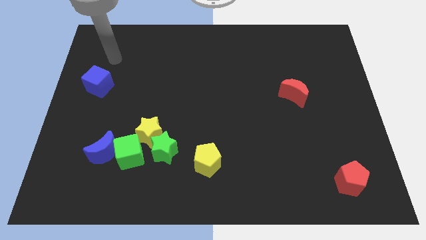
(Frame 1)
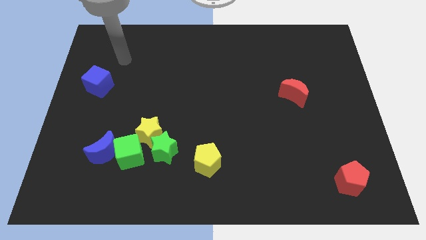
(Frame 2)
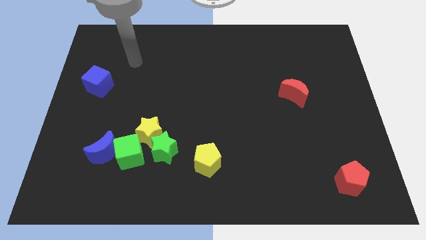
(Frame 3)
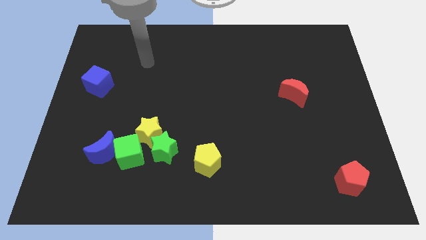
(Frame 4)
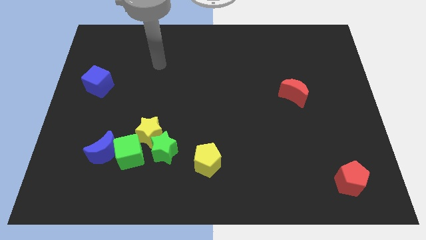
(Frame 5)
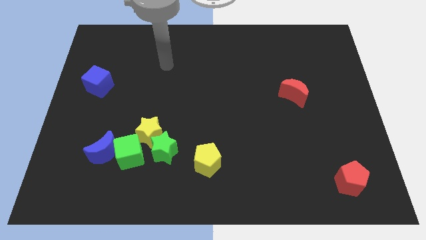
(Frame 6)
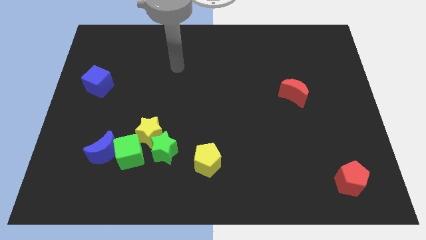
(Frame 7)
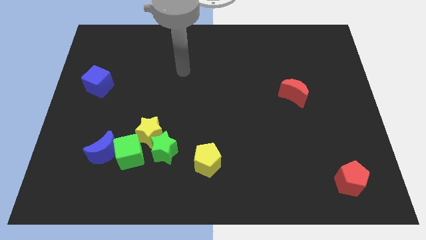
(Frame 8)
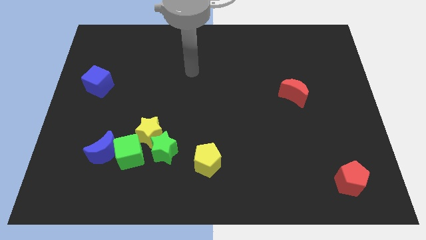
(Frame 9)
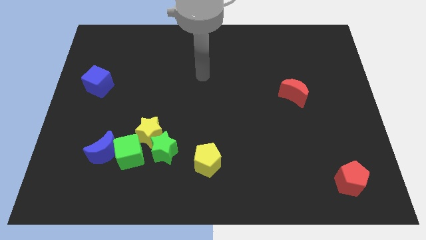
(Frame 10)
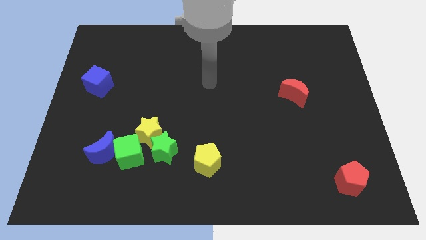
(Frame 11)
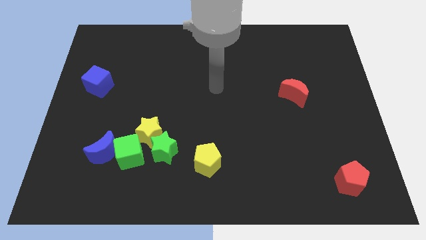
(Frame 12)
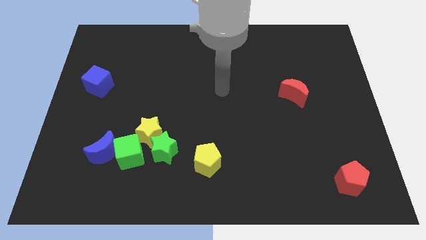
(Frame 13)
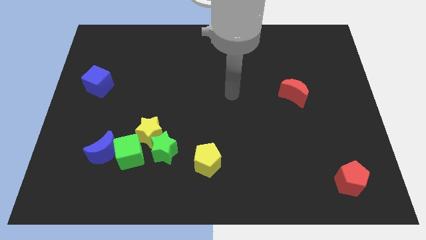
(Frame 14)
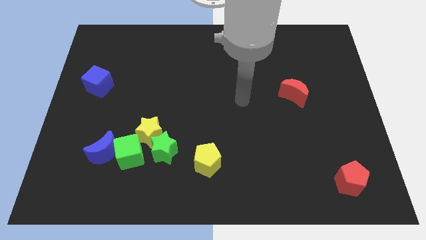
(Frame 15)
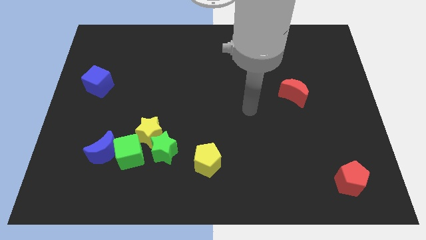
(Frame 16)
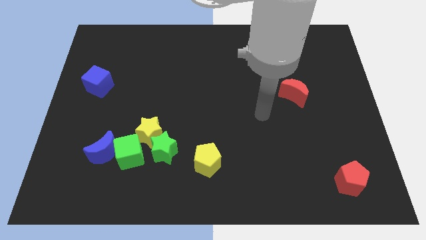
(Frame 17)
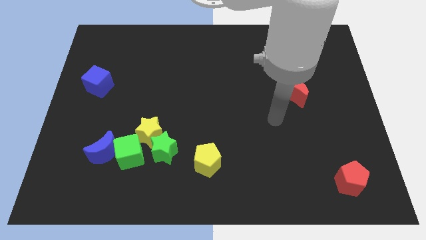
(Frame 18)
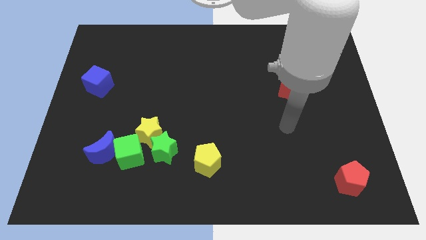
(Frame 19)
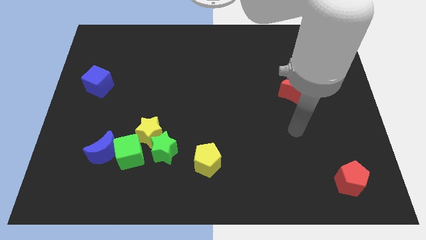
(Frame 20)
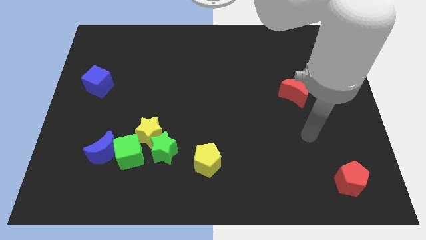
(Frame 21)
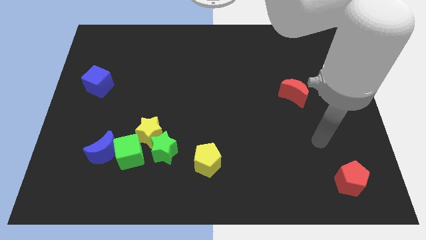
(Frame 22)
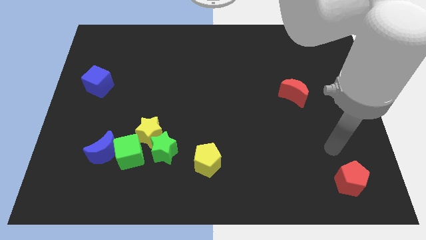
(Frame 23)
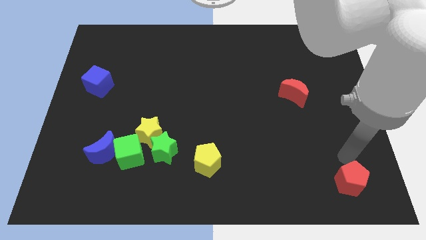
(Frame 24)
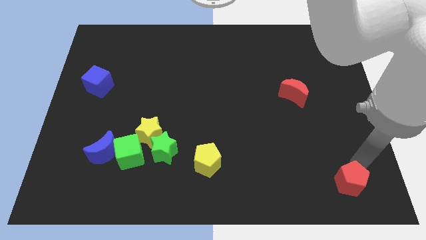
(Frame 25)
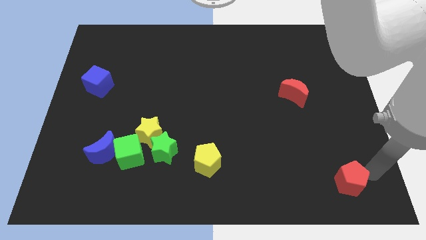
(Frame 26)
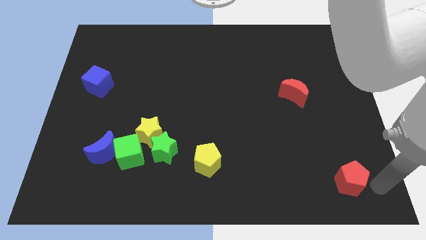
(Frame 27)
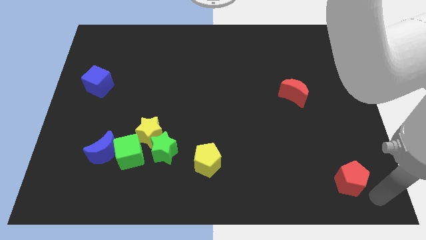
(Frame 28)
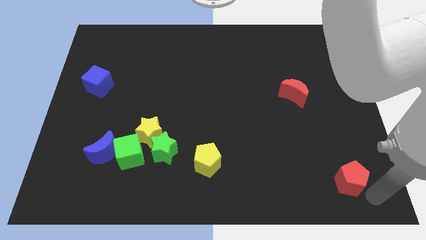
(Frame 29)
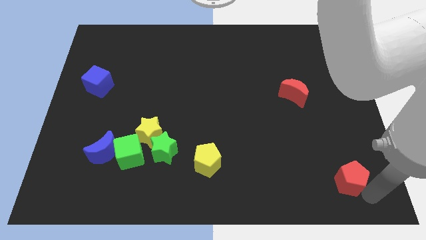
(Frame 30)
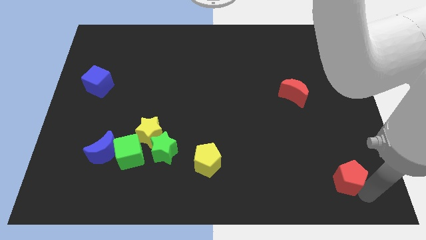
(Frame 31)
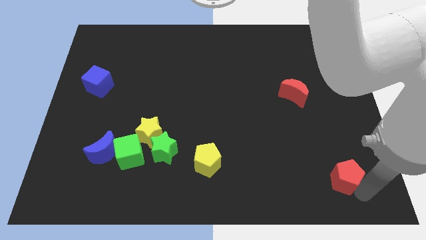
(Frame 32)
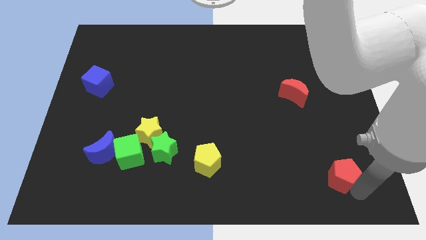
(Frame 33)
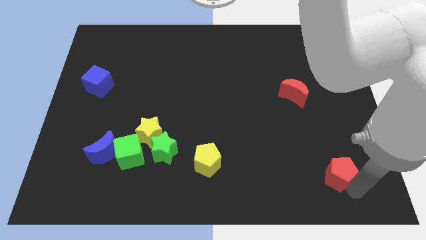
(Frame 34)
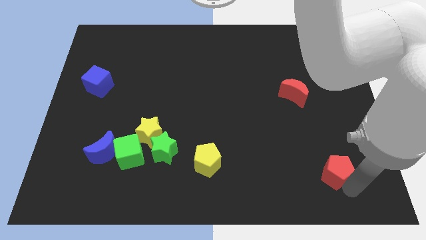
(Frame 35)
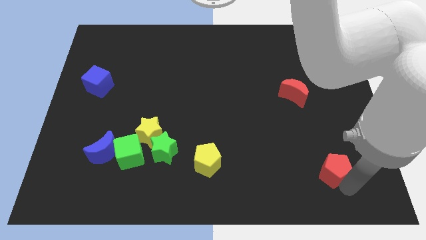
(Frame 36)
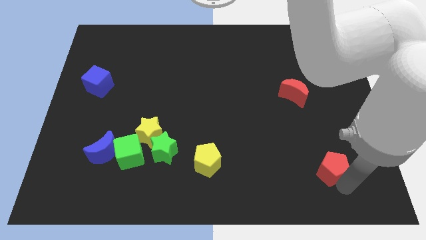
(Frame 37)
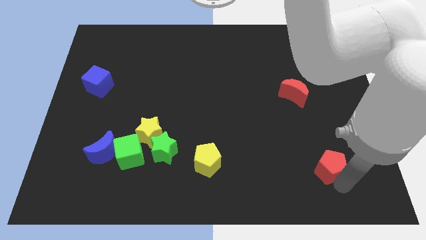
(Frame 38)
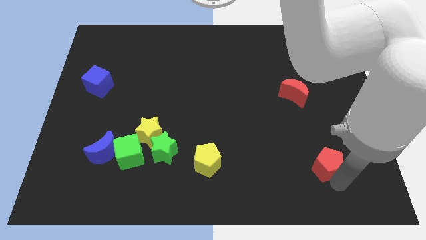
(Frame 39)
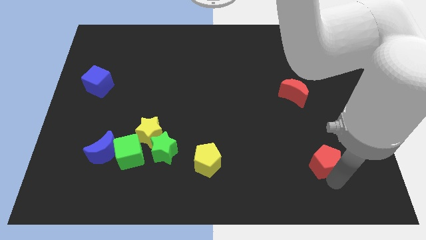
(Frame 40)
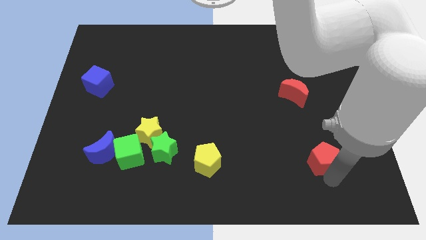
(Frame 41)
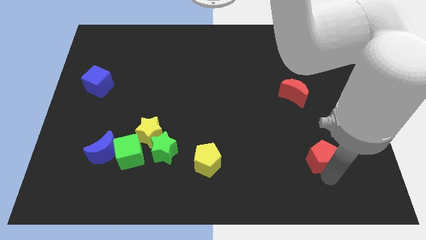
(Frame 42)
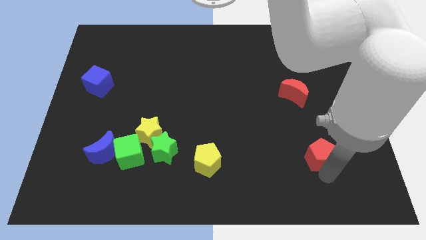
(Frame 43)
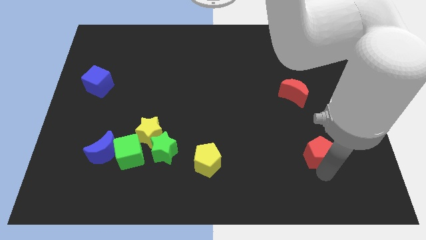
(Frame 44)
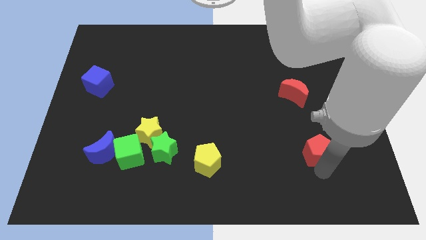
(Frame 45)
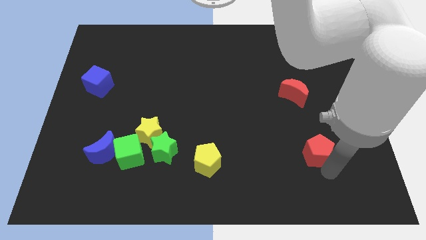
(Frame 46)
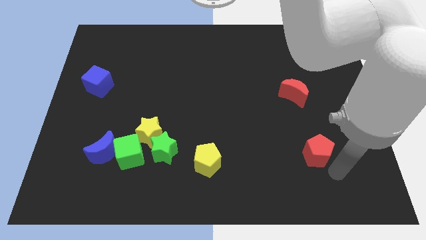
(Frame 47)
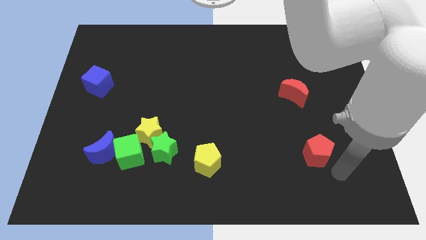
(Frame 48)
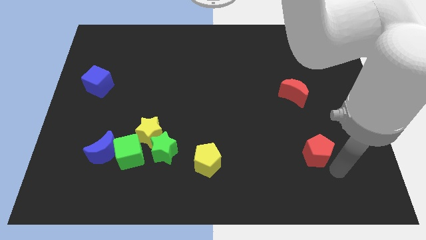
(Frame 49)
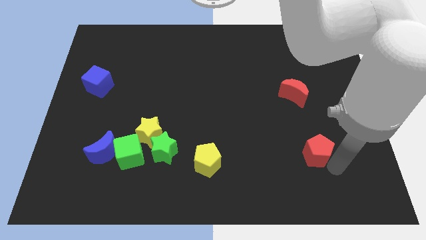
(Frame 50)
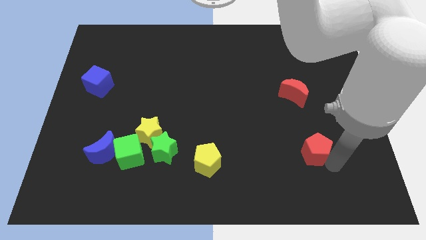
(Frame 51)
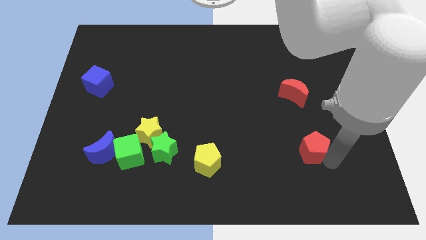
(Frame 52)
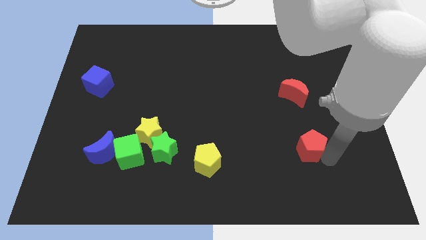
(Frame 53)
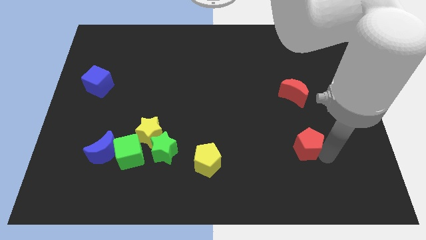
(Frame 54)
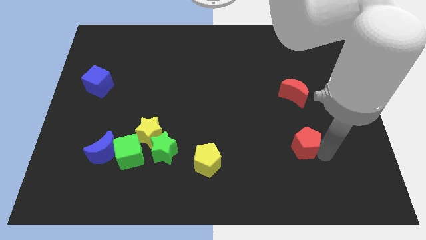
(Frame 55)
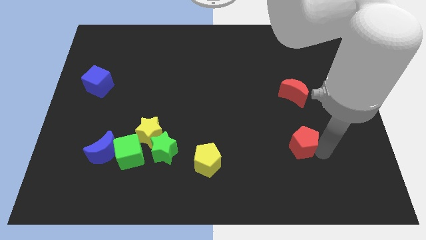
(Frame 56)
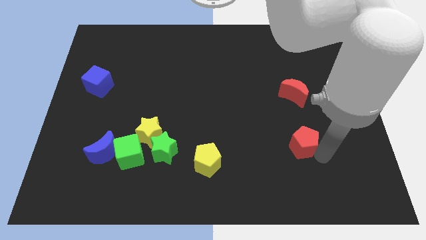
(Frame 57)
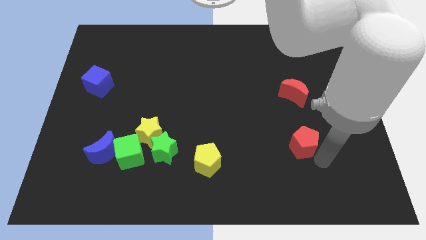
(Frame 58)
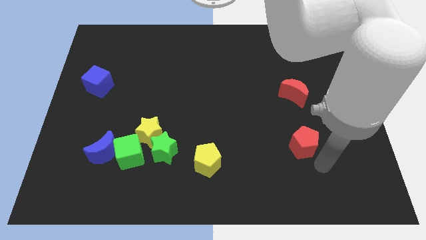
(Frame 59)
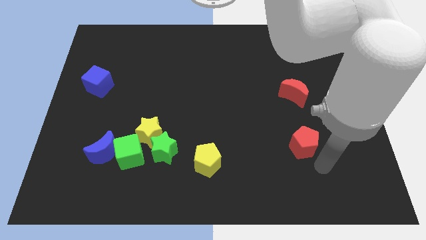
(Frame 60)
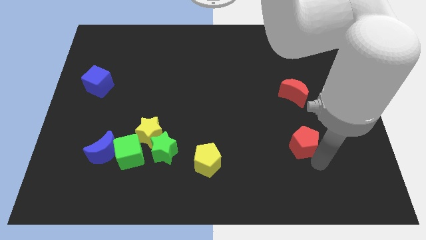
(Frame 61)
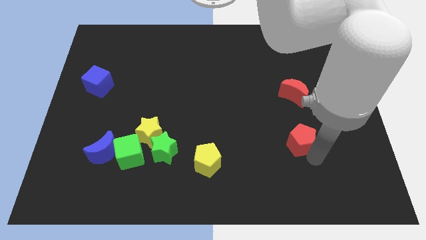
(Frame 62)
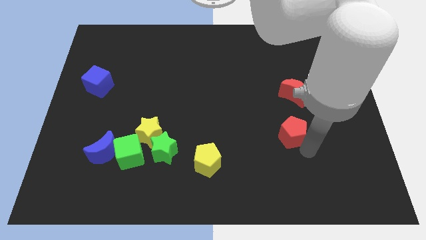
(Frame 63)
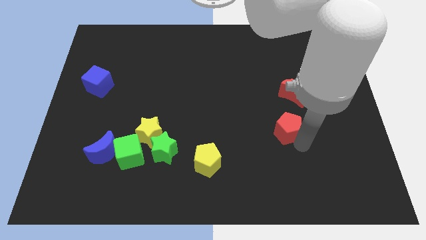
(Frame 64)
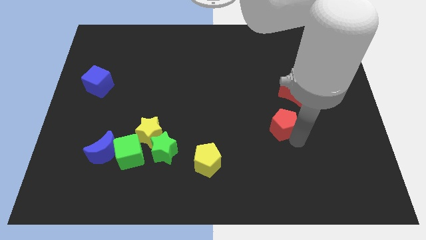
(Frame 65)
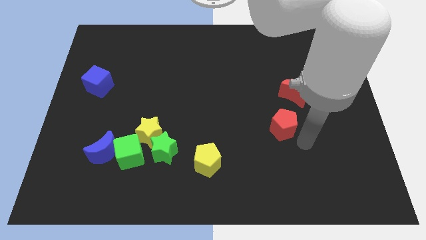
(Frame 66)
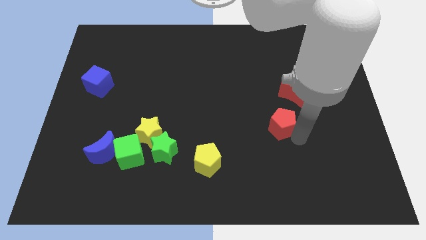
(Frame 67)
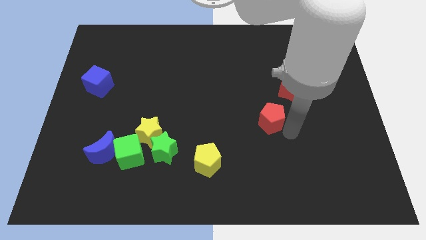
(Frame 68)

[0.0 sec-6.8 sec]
push the red pentagon up and left

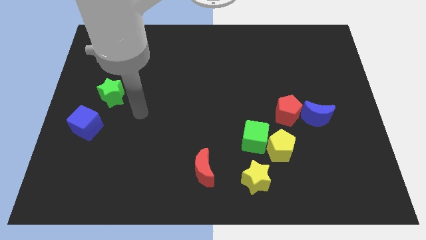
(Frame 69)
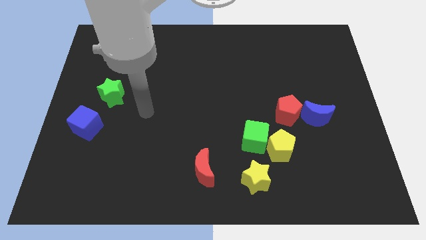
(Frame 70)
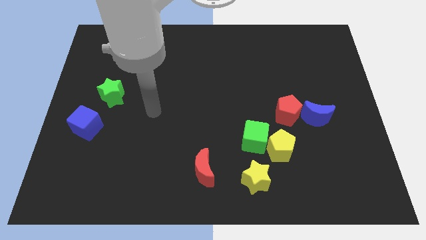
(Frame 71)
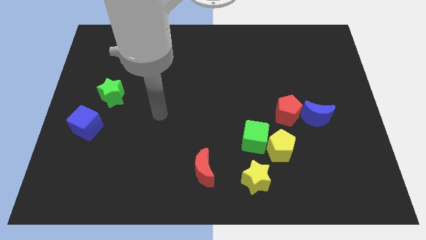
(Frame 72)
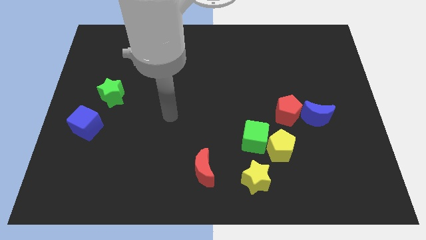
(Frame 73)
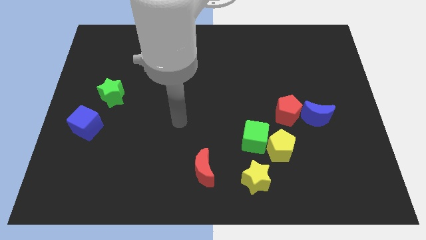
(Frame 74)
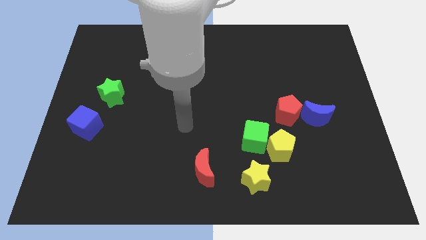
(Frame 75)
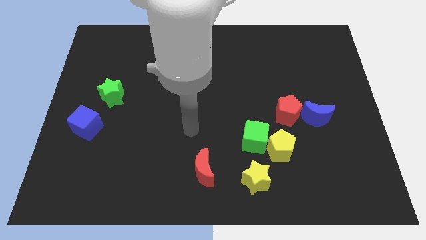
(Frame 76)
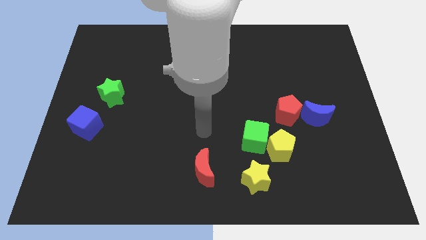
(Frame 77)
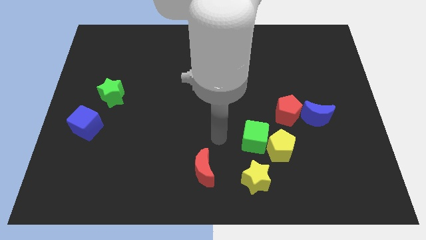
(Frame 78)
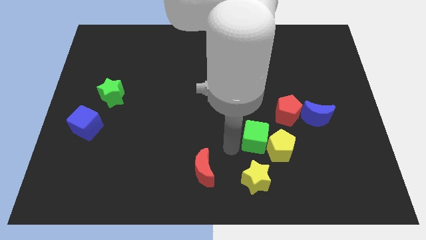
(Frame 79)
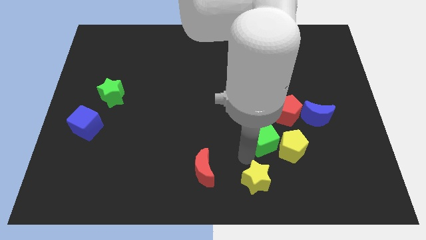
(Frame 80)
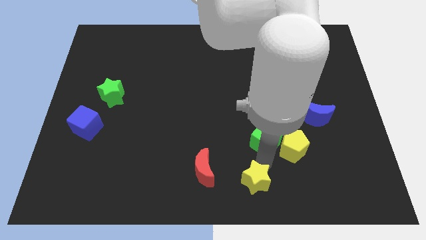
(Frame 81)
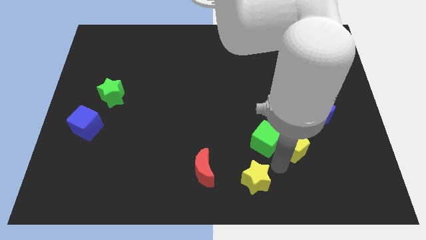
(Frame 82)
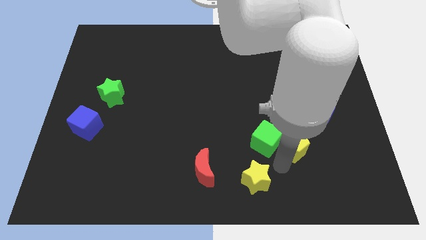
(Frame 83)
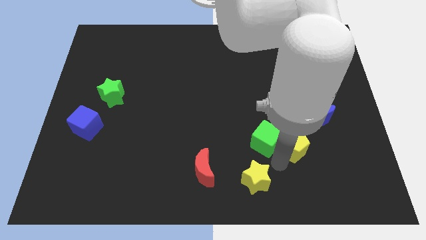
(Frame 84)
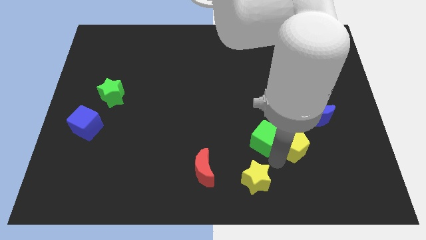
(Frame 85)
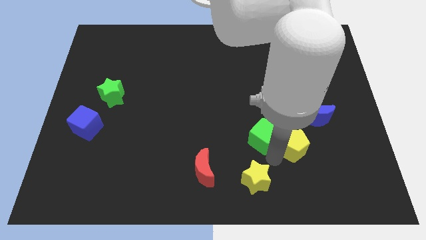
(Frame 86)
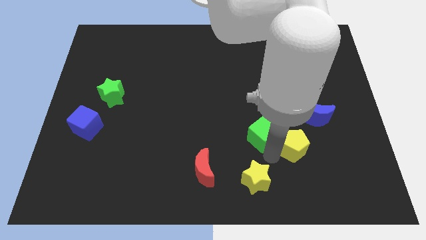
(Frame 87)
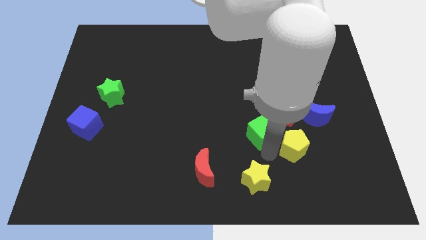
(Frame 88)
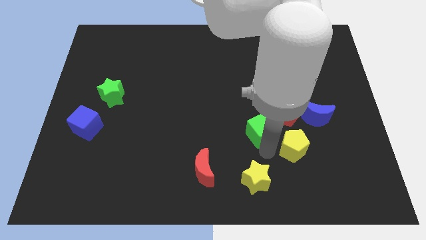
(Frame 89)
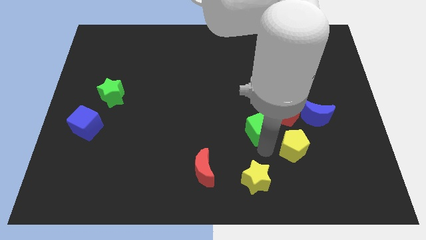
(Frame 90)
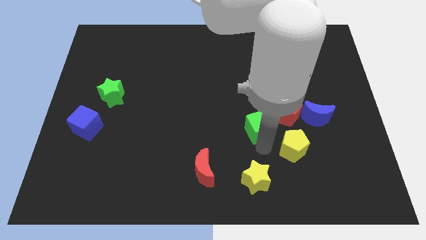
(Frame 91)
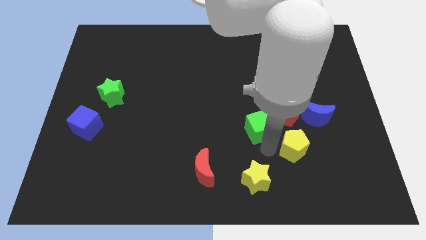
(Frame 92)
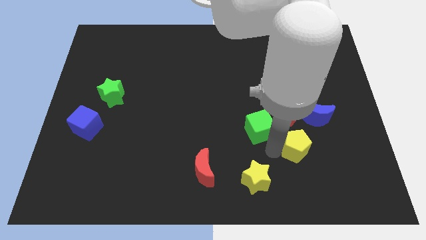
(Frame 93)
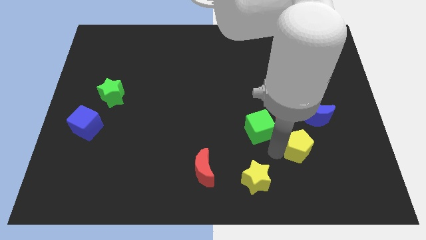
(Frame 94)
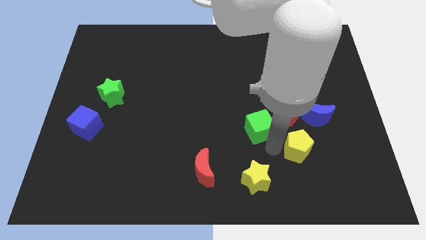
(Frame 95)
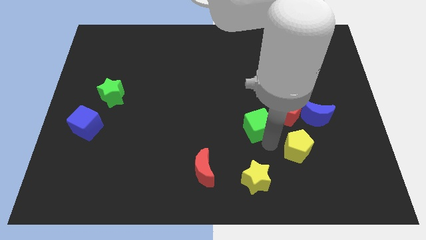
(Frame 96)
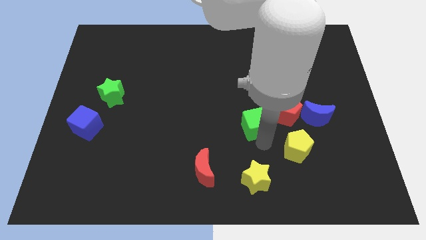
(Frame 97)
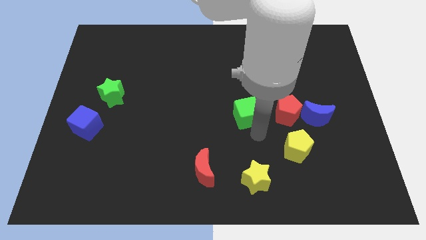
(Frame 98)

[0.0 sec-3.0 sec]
push the green cube somewhat upwards
